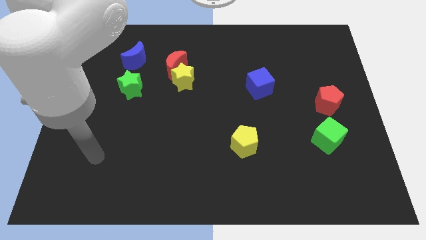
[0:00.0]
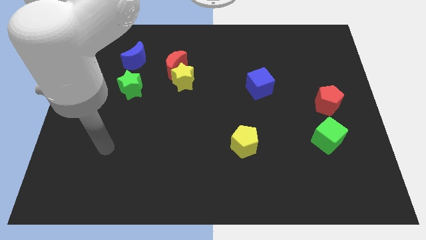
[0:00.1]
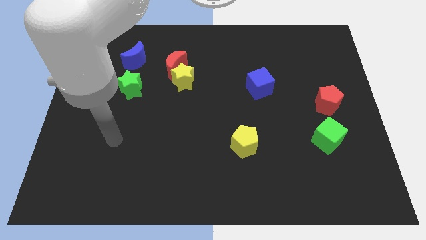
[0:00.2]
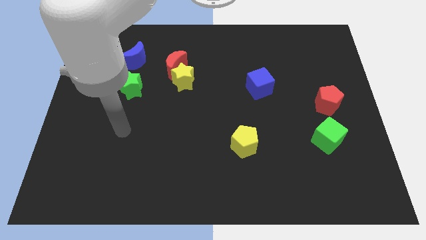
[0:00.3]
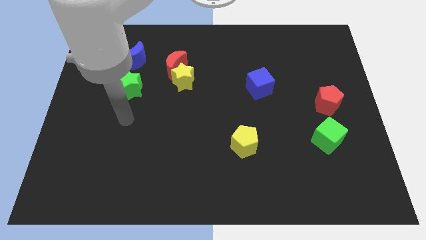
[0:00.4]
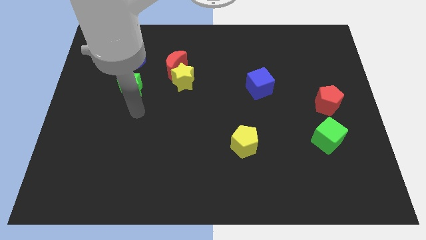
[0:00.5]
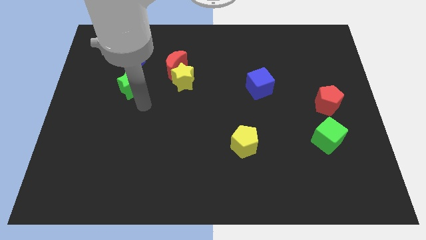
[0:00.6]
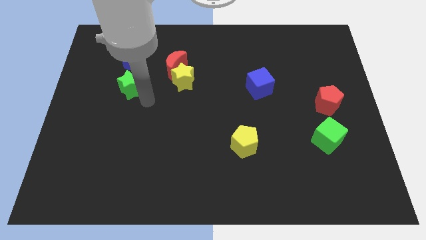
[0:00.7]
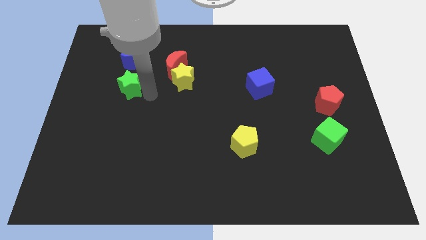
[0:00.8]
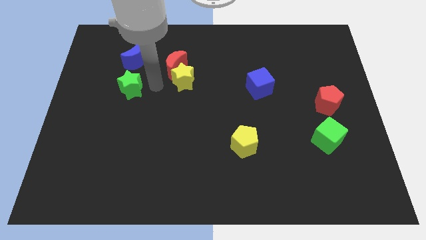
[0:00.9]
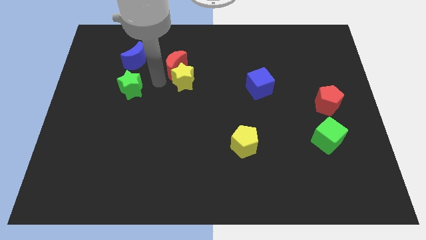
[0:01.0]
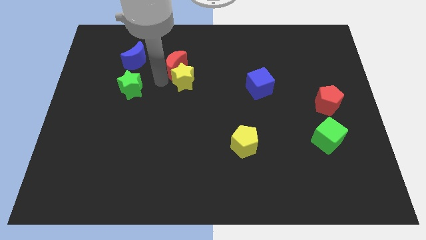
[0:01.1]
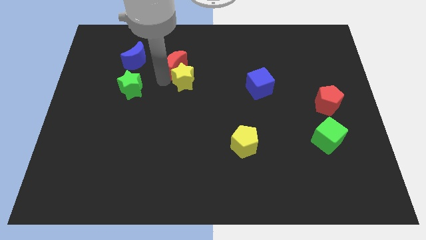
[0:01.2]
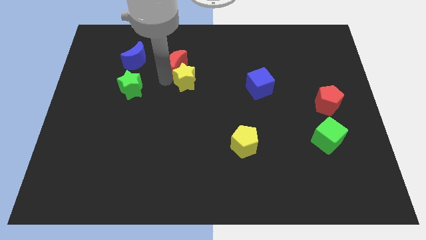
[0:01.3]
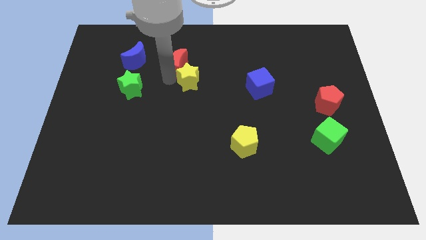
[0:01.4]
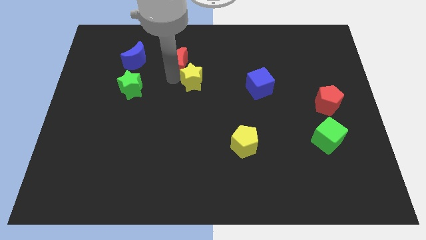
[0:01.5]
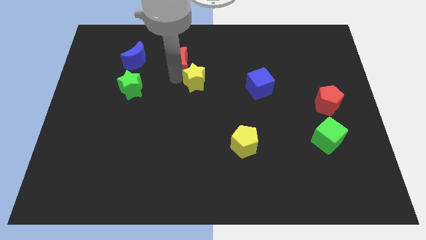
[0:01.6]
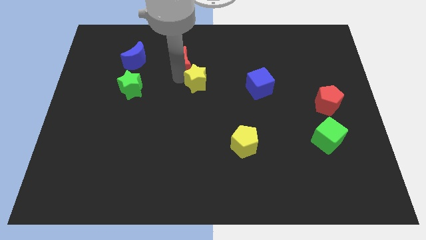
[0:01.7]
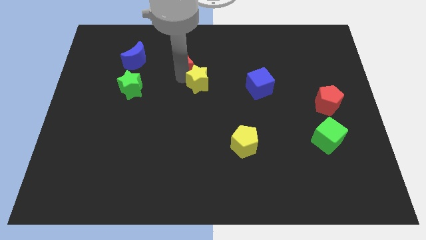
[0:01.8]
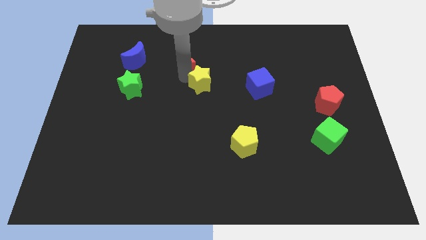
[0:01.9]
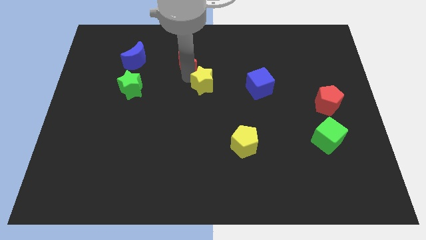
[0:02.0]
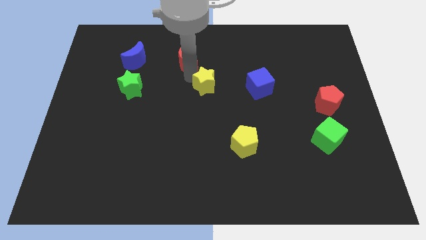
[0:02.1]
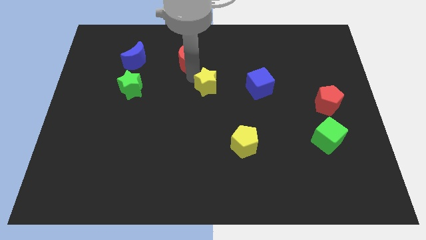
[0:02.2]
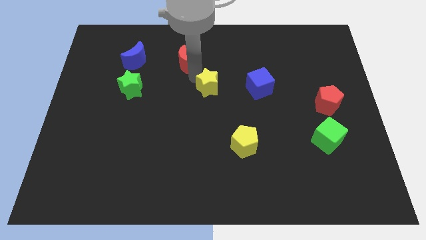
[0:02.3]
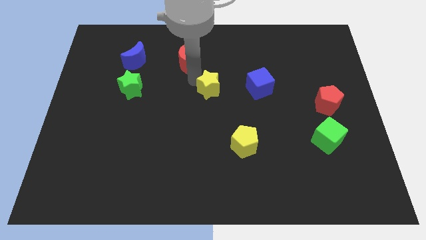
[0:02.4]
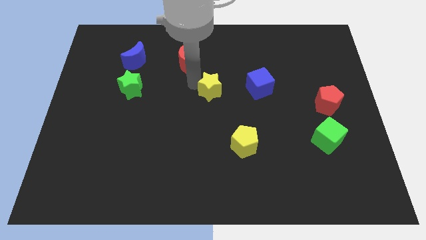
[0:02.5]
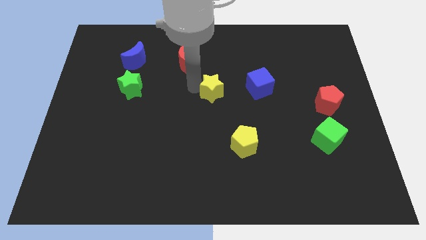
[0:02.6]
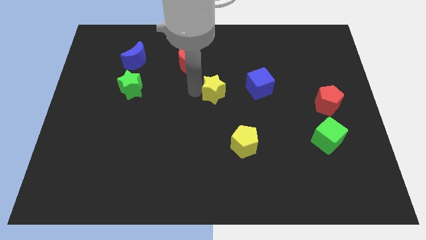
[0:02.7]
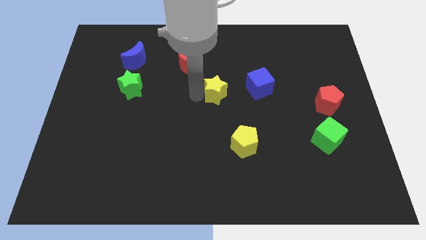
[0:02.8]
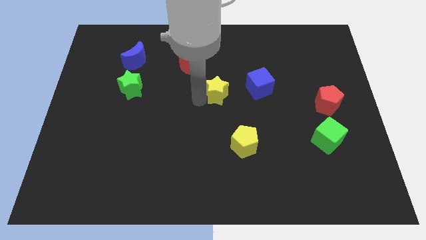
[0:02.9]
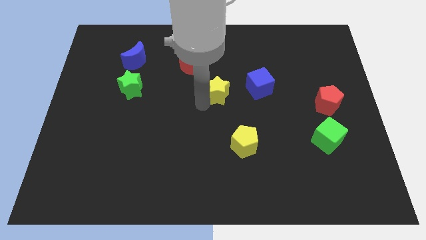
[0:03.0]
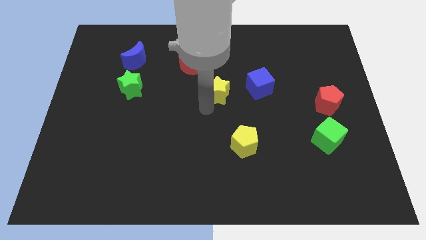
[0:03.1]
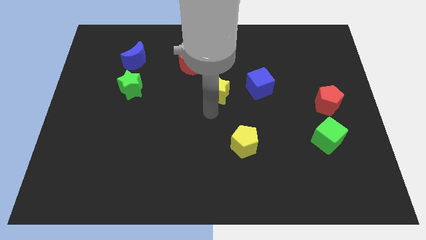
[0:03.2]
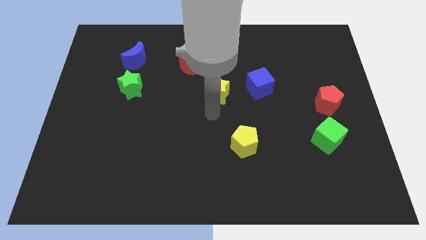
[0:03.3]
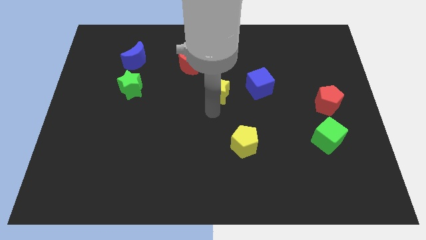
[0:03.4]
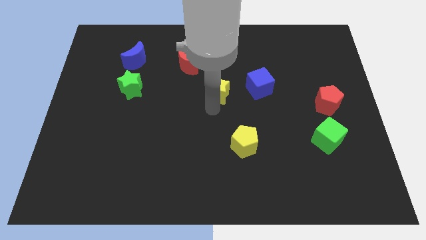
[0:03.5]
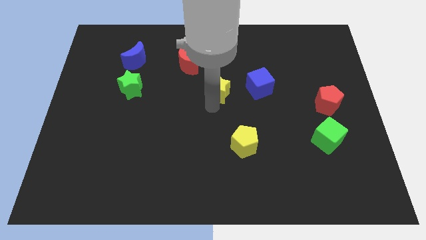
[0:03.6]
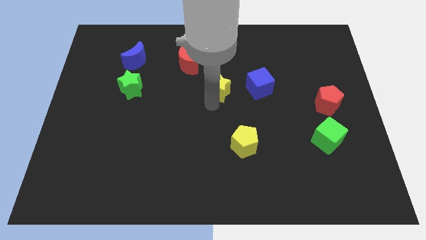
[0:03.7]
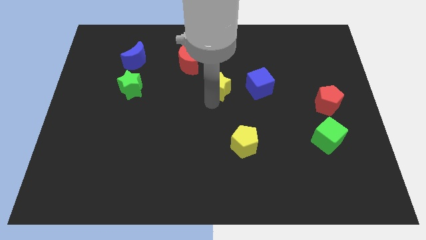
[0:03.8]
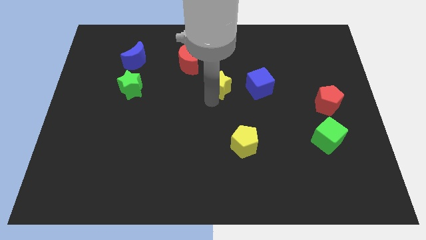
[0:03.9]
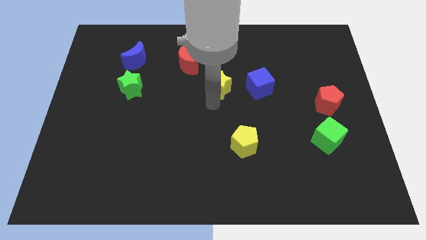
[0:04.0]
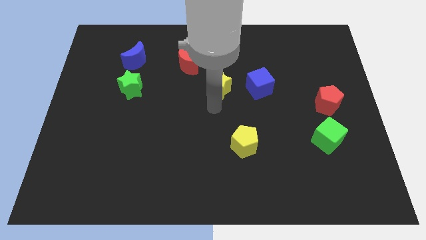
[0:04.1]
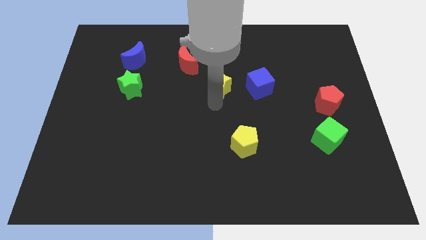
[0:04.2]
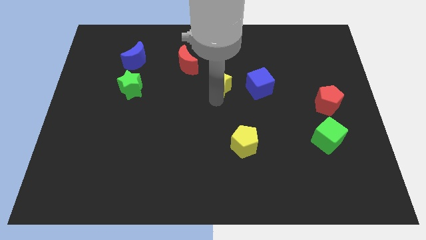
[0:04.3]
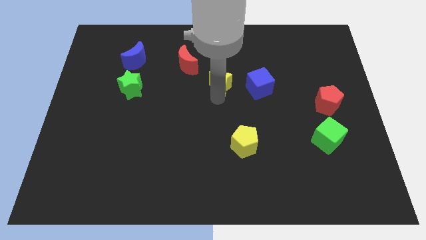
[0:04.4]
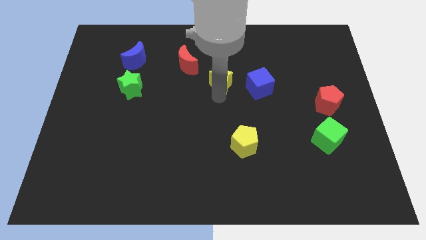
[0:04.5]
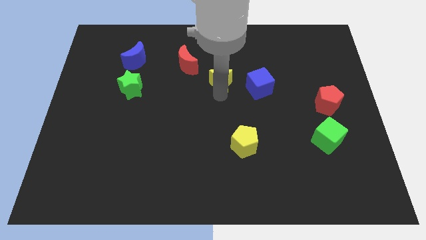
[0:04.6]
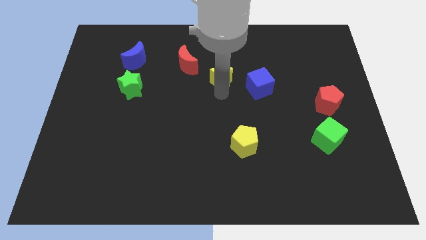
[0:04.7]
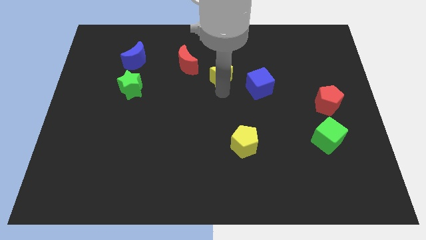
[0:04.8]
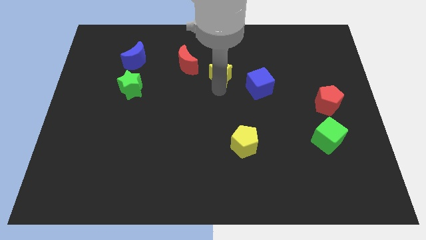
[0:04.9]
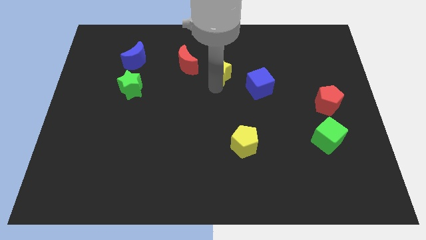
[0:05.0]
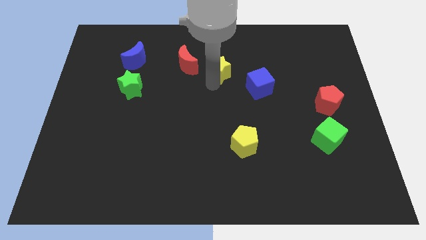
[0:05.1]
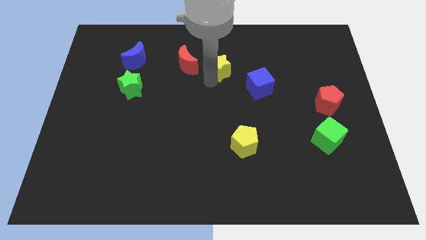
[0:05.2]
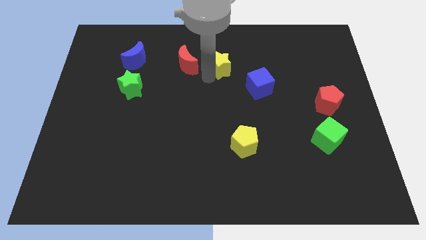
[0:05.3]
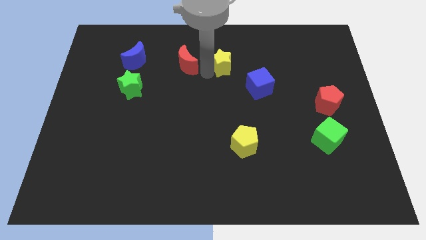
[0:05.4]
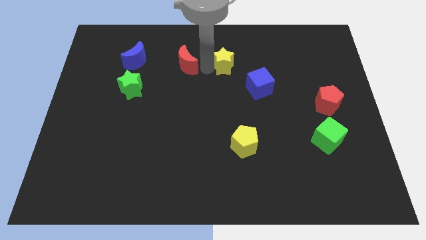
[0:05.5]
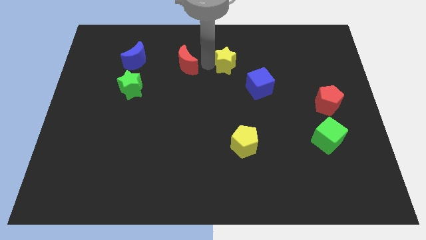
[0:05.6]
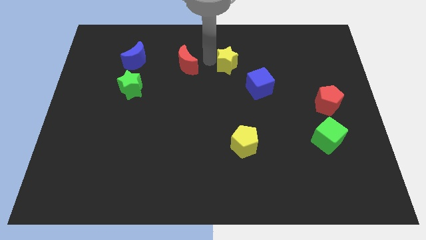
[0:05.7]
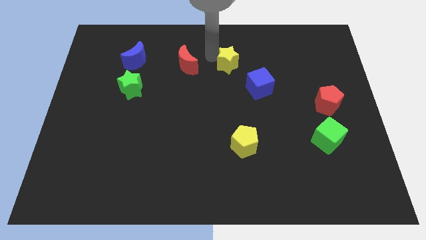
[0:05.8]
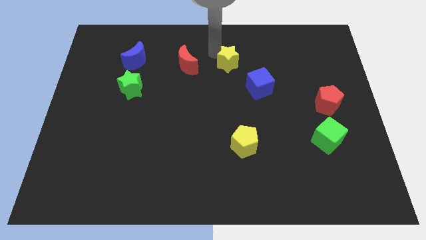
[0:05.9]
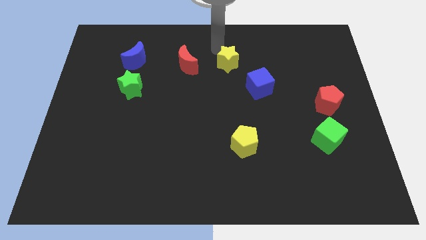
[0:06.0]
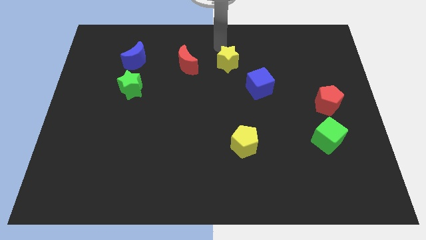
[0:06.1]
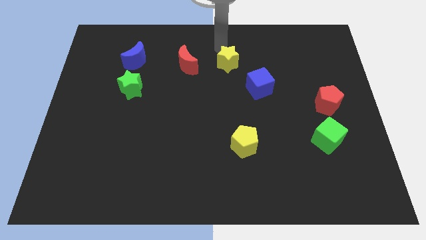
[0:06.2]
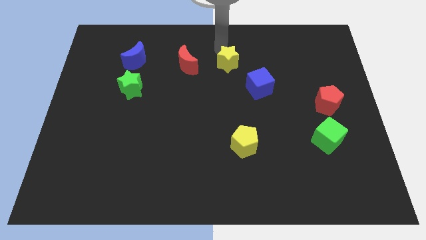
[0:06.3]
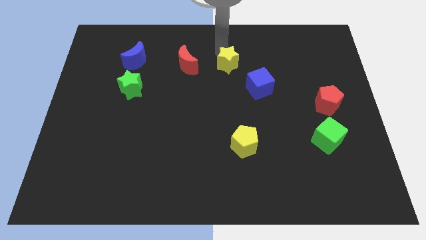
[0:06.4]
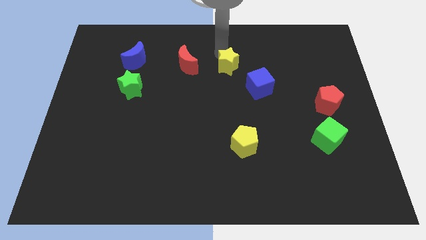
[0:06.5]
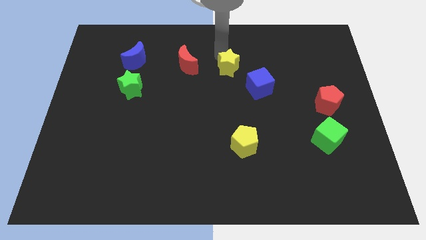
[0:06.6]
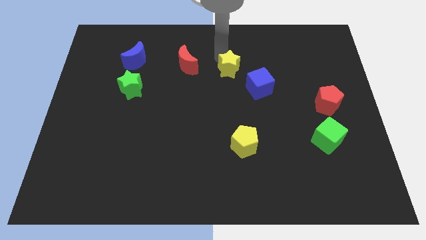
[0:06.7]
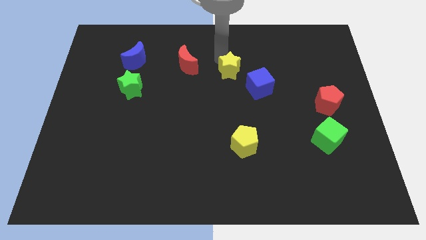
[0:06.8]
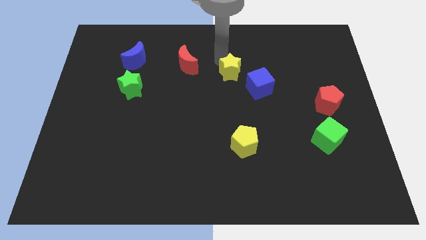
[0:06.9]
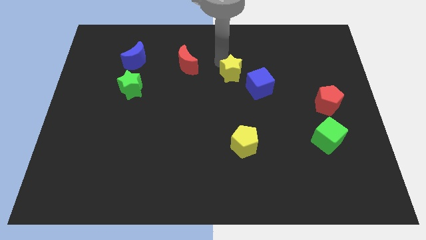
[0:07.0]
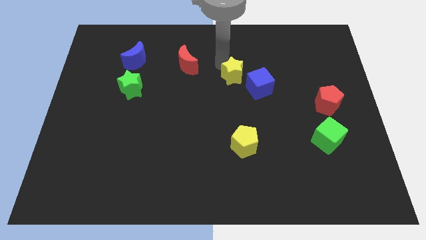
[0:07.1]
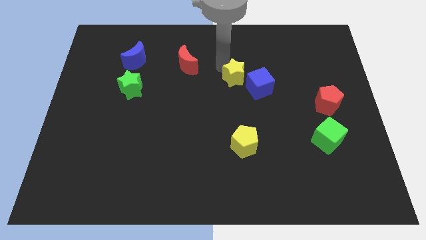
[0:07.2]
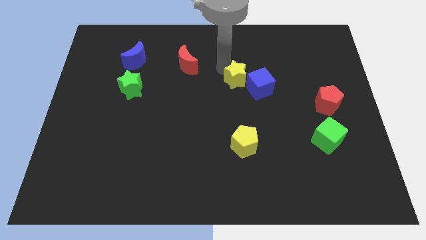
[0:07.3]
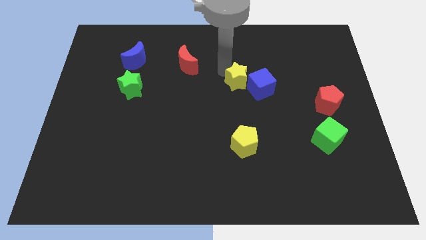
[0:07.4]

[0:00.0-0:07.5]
put the yellow star towards the blue cube
